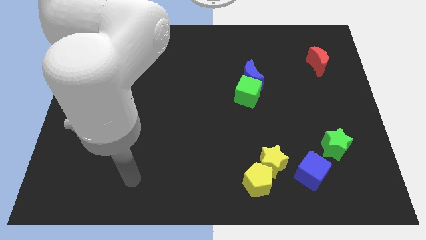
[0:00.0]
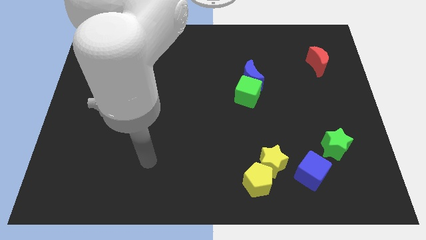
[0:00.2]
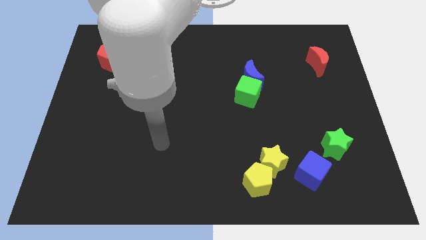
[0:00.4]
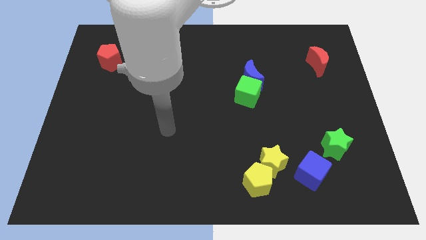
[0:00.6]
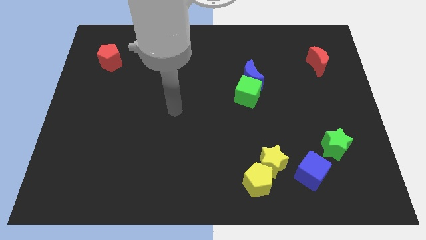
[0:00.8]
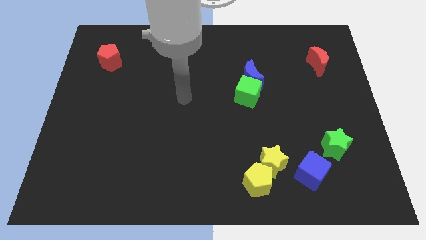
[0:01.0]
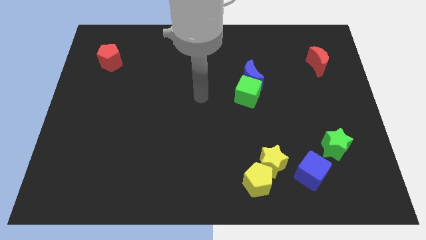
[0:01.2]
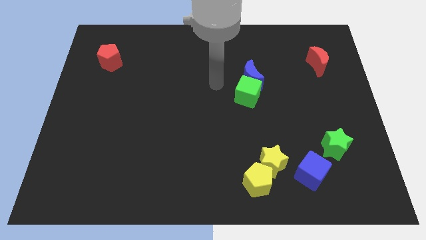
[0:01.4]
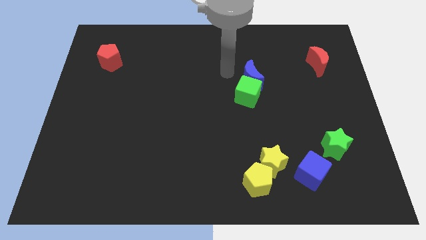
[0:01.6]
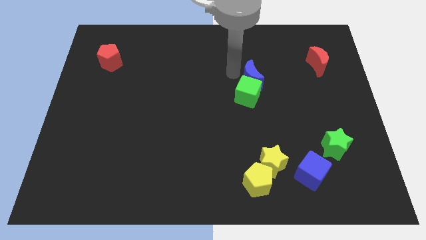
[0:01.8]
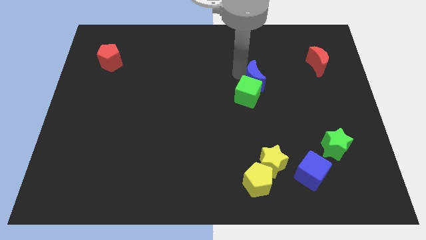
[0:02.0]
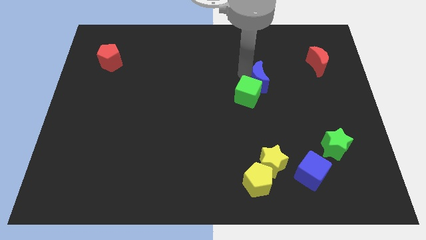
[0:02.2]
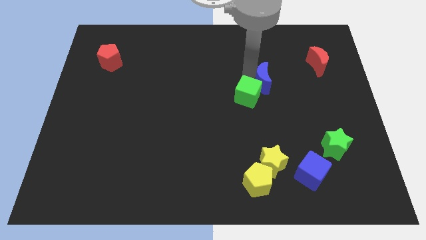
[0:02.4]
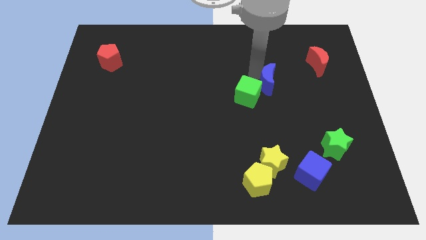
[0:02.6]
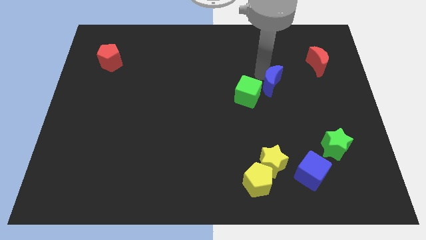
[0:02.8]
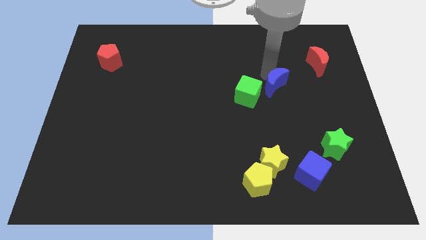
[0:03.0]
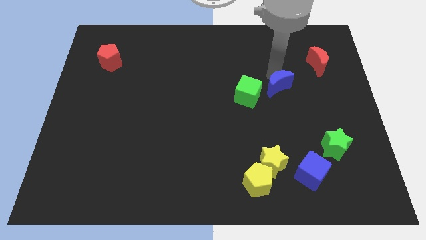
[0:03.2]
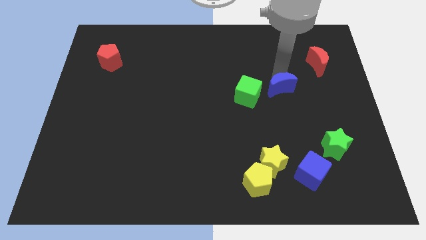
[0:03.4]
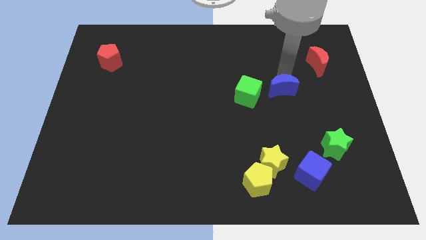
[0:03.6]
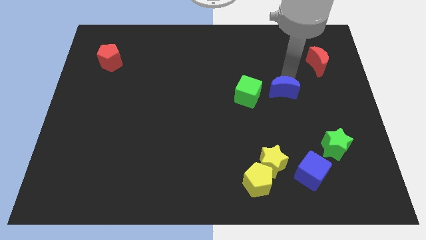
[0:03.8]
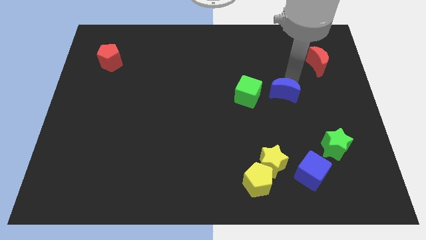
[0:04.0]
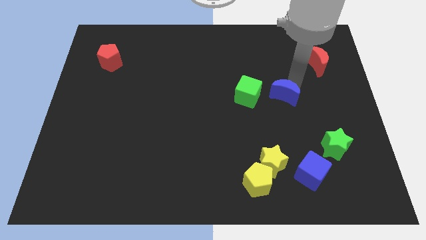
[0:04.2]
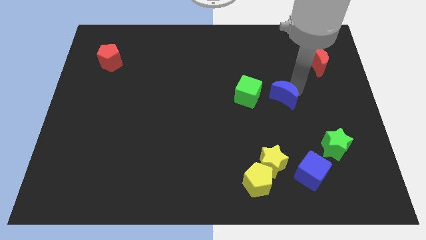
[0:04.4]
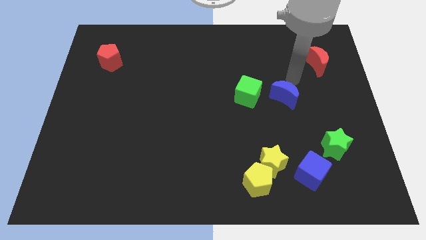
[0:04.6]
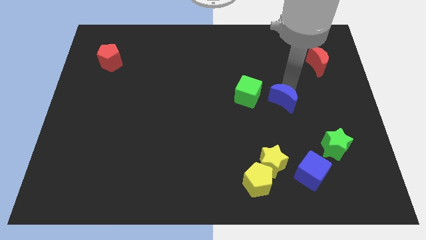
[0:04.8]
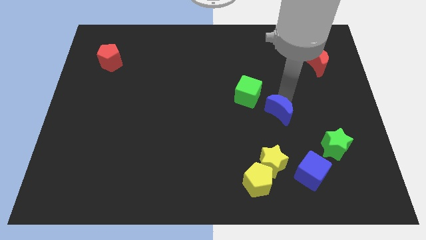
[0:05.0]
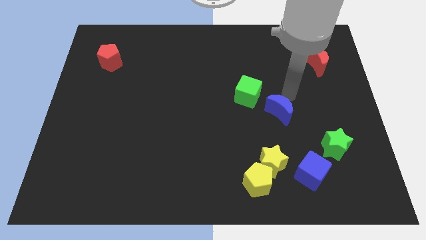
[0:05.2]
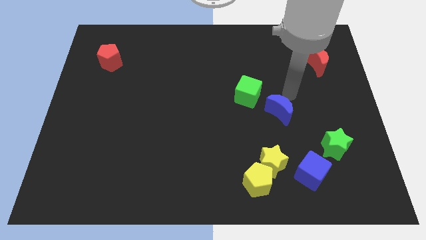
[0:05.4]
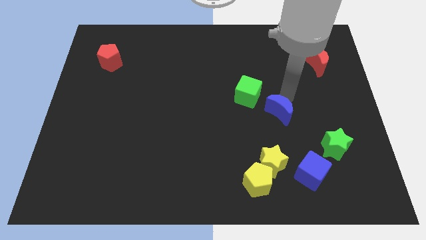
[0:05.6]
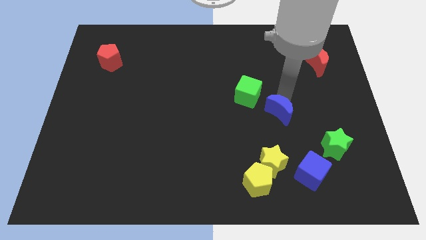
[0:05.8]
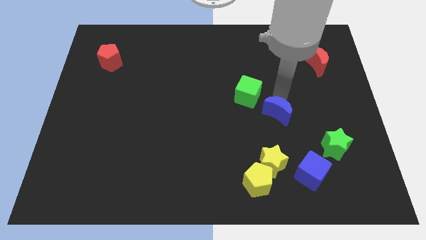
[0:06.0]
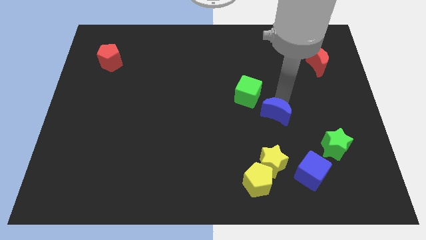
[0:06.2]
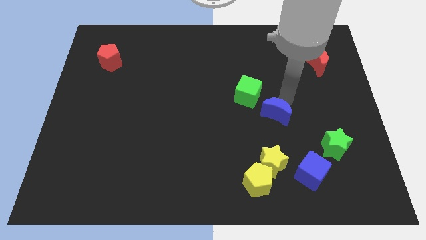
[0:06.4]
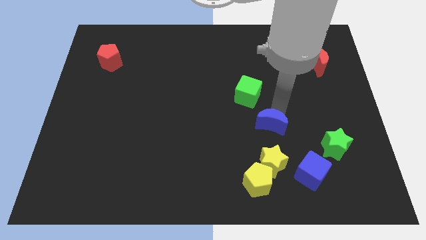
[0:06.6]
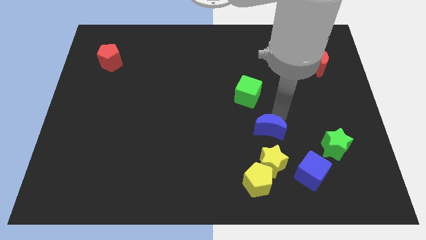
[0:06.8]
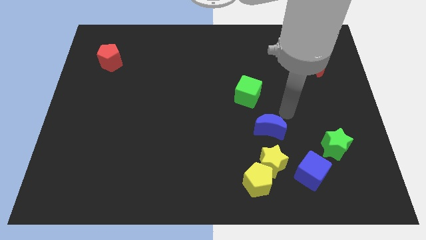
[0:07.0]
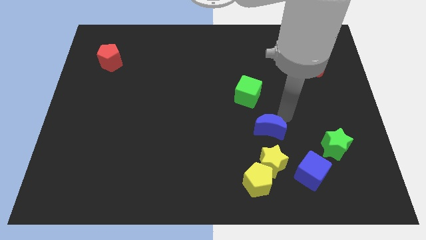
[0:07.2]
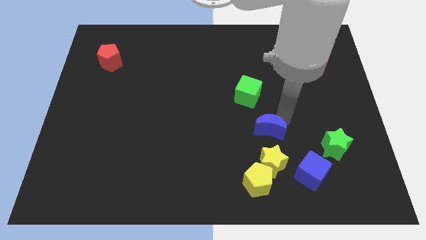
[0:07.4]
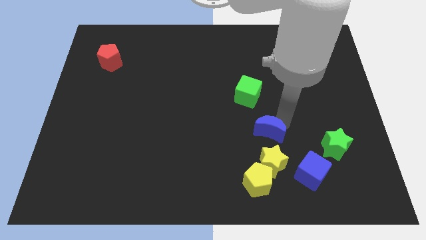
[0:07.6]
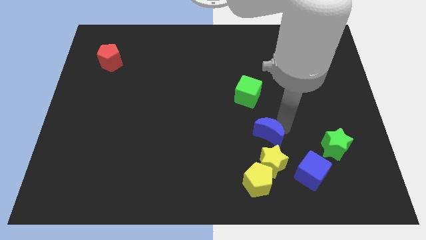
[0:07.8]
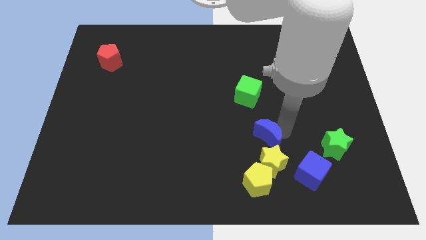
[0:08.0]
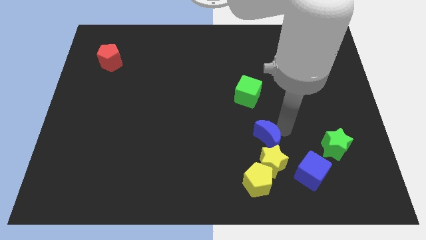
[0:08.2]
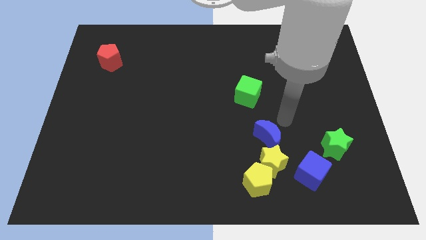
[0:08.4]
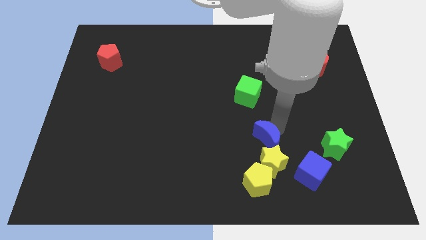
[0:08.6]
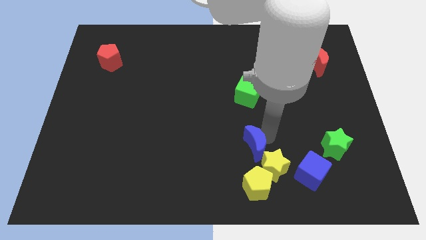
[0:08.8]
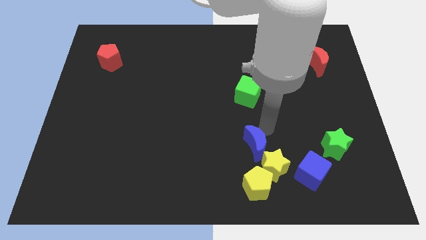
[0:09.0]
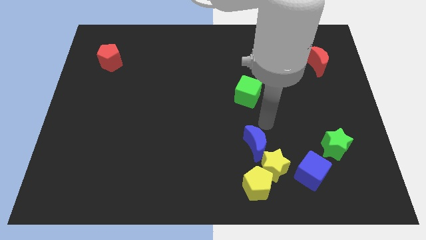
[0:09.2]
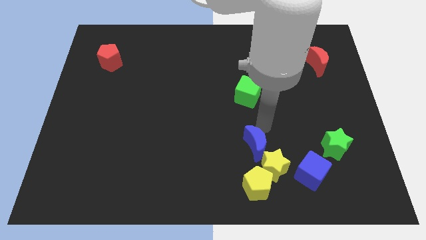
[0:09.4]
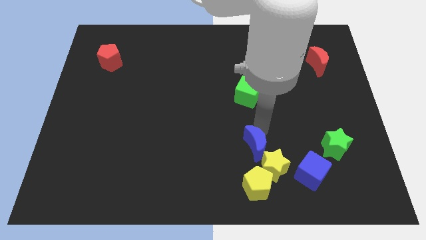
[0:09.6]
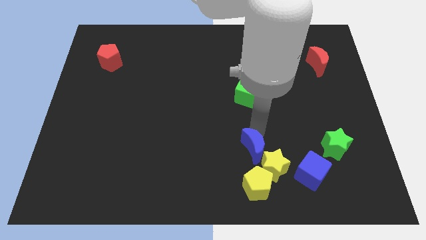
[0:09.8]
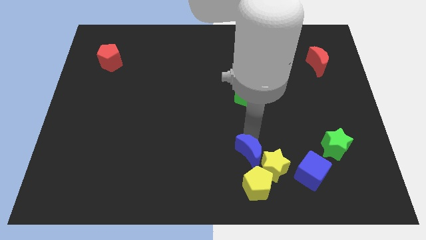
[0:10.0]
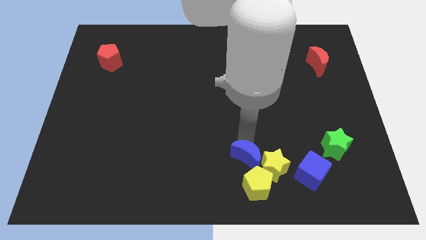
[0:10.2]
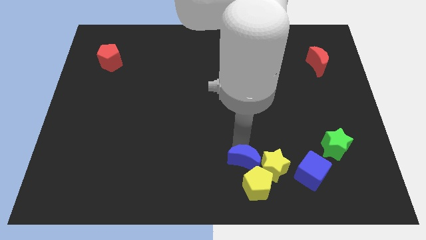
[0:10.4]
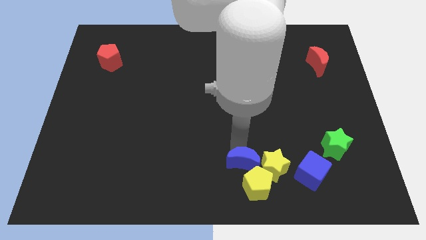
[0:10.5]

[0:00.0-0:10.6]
slide the blue moon close to the yellow pentagon

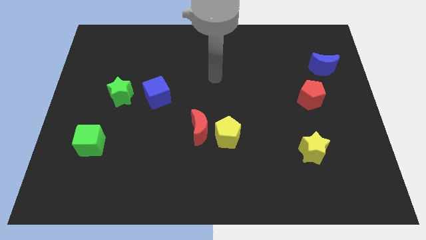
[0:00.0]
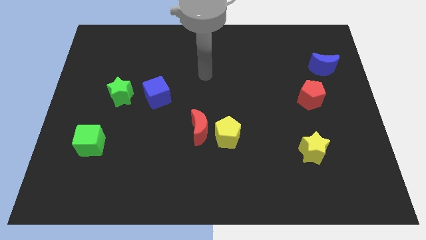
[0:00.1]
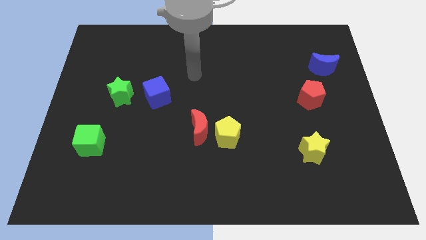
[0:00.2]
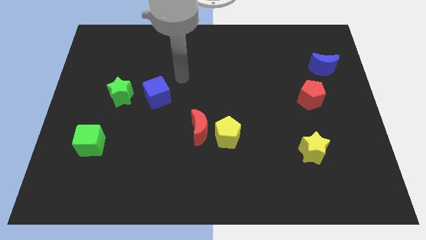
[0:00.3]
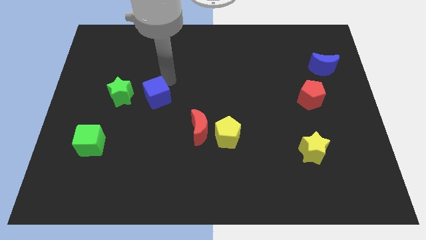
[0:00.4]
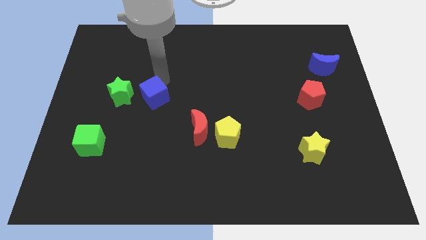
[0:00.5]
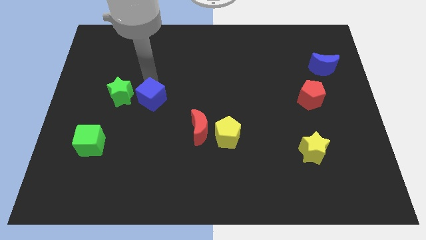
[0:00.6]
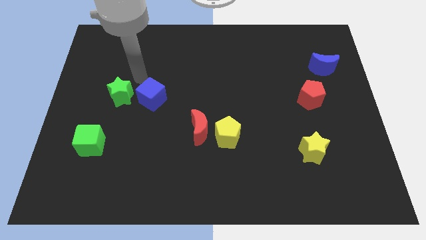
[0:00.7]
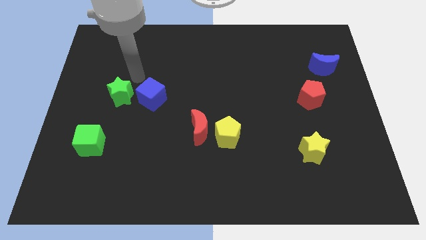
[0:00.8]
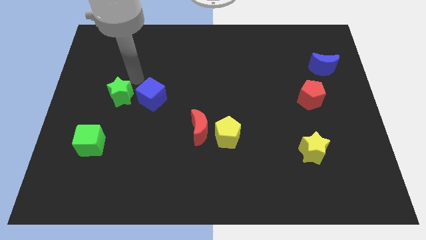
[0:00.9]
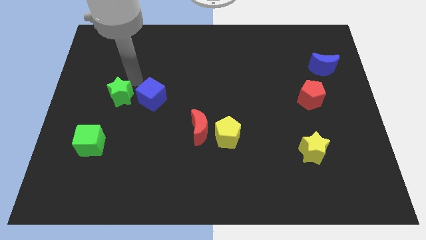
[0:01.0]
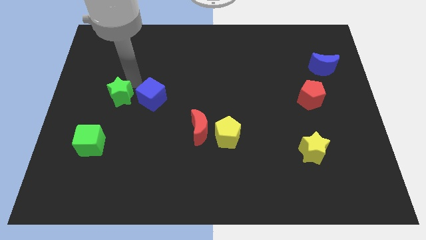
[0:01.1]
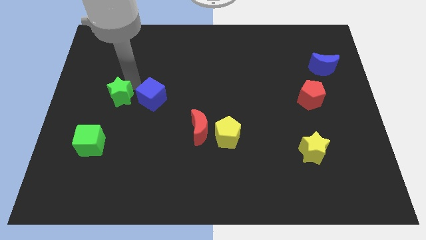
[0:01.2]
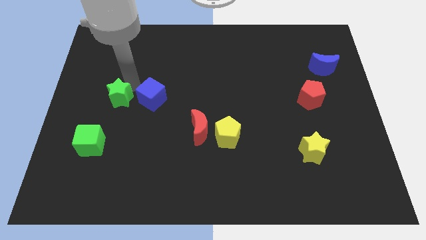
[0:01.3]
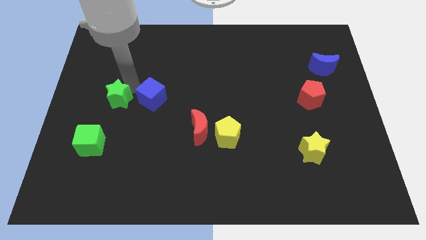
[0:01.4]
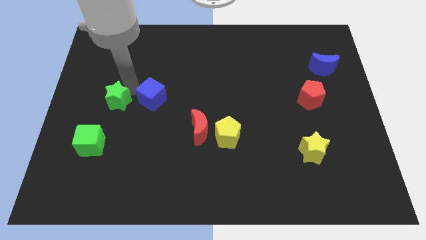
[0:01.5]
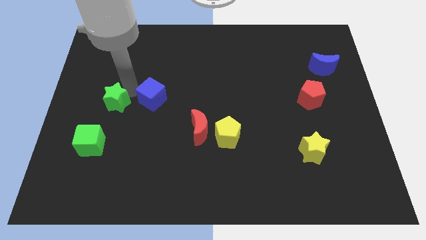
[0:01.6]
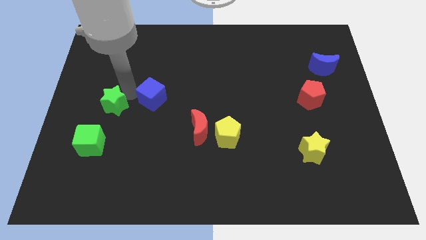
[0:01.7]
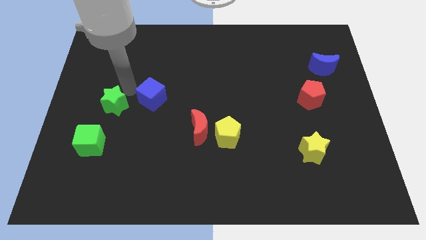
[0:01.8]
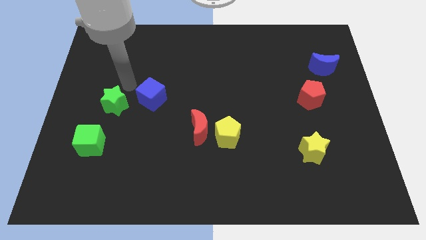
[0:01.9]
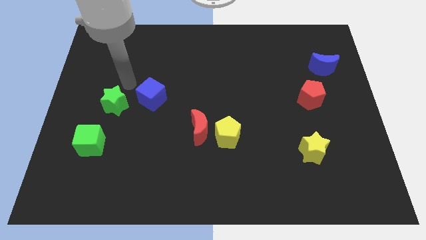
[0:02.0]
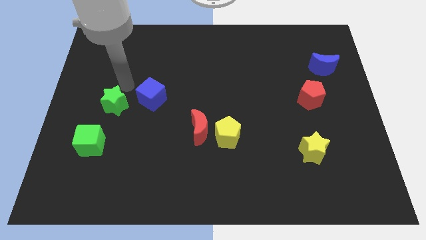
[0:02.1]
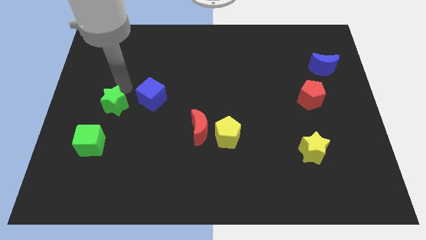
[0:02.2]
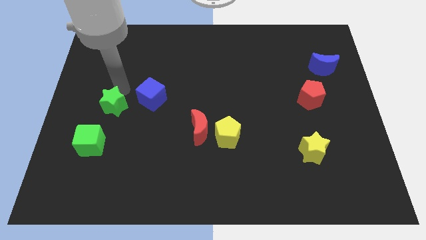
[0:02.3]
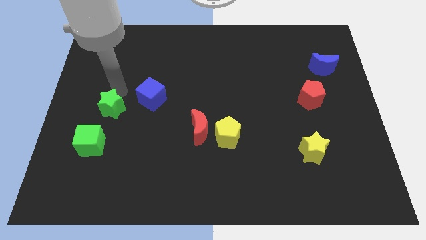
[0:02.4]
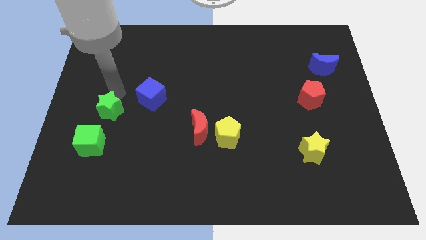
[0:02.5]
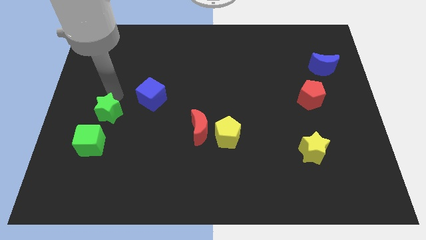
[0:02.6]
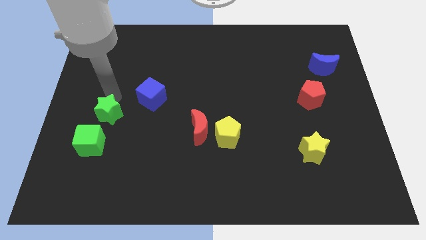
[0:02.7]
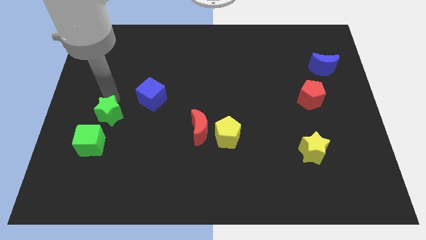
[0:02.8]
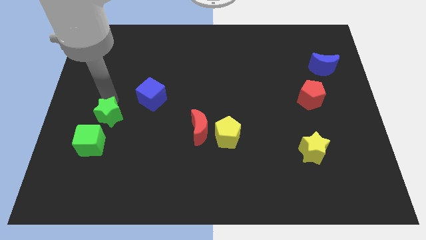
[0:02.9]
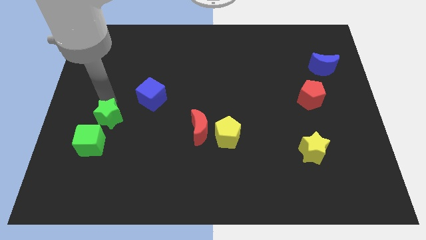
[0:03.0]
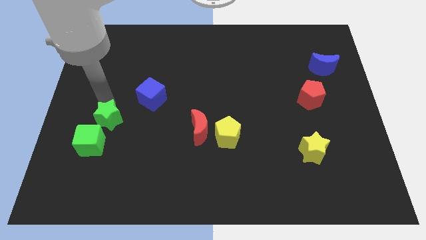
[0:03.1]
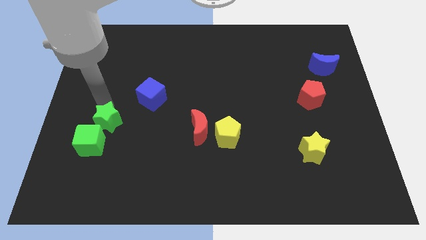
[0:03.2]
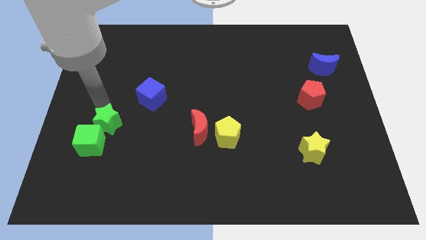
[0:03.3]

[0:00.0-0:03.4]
slide the green star close to the green cube
